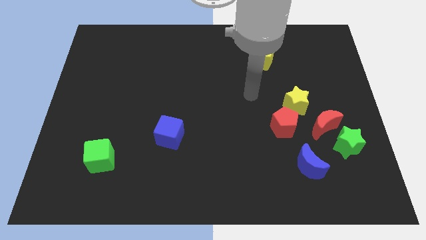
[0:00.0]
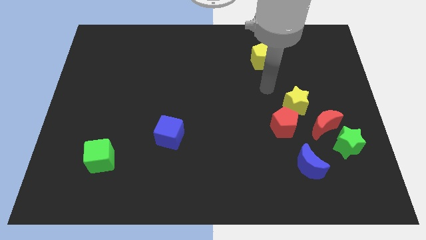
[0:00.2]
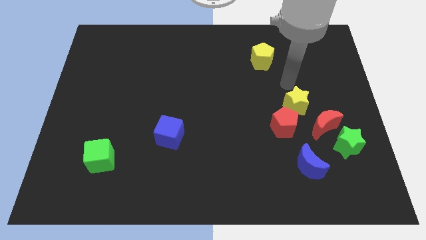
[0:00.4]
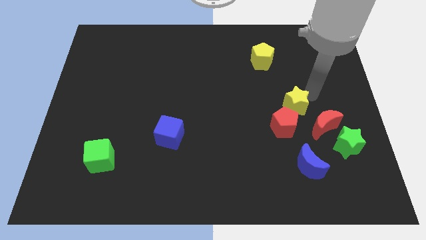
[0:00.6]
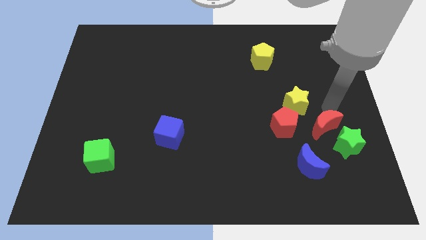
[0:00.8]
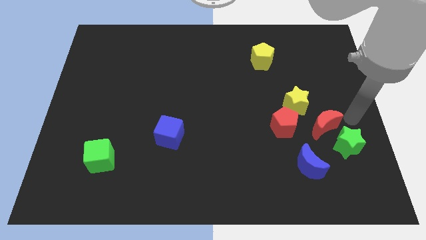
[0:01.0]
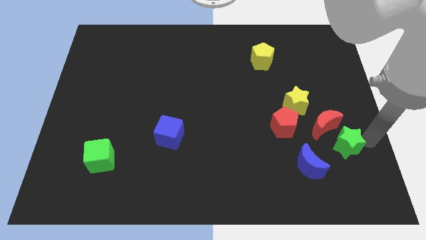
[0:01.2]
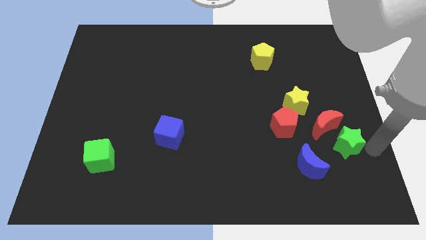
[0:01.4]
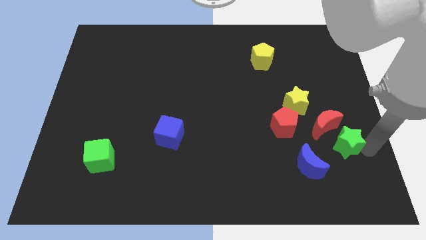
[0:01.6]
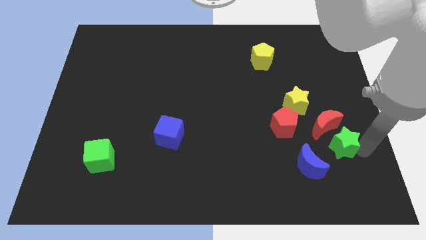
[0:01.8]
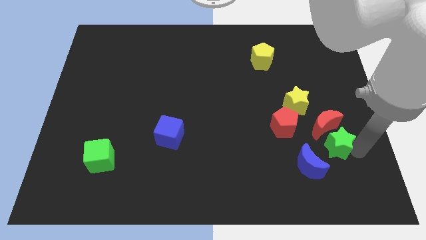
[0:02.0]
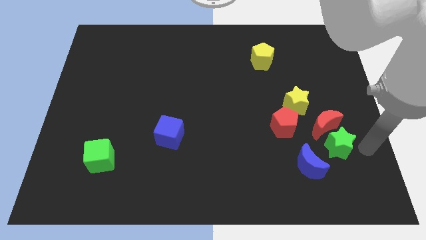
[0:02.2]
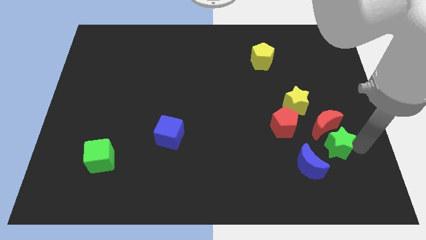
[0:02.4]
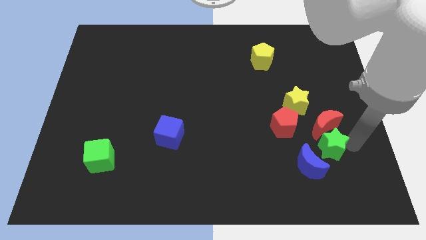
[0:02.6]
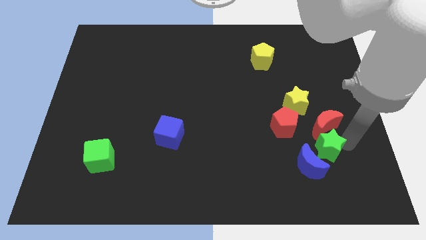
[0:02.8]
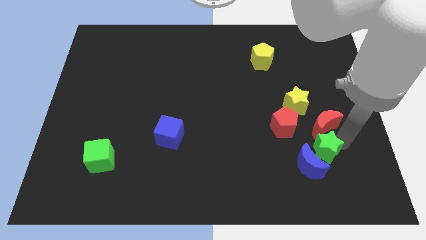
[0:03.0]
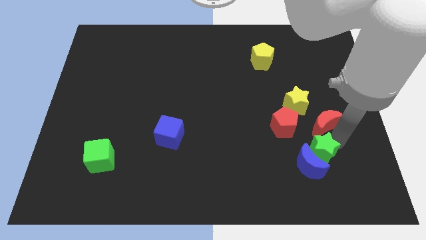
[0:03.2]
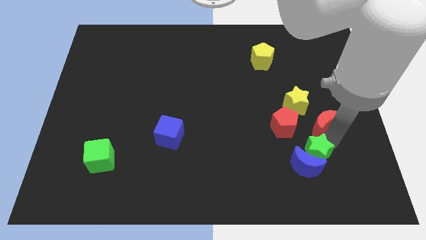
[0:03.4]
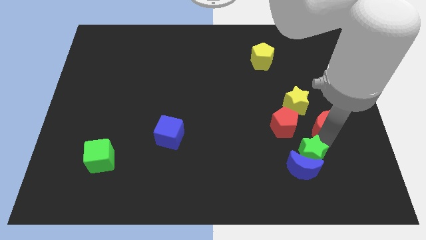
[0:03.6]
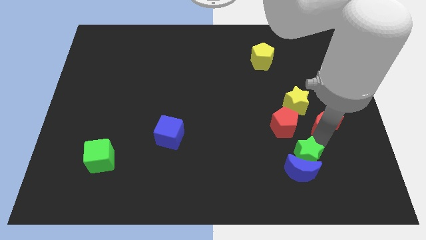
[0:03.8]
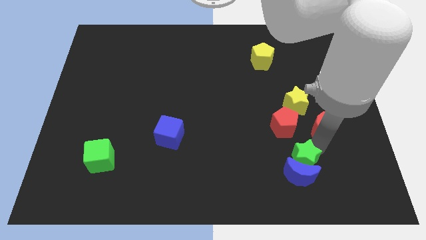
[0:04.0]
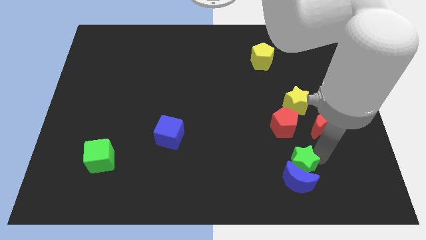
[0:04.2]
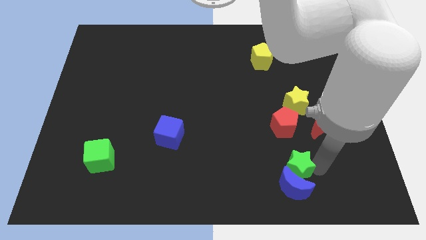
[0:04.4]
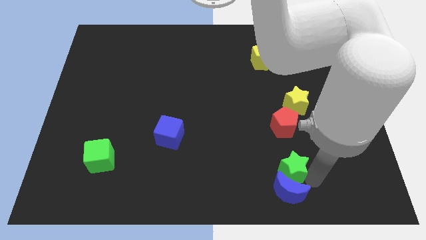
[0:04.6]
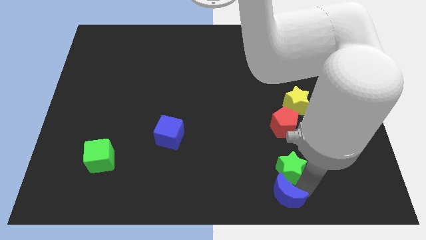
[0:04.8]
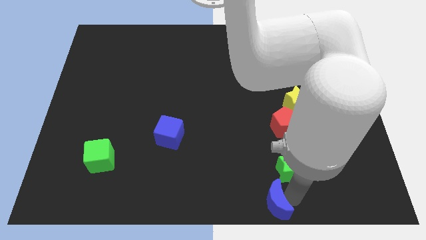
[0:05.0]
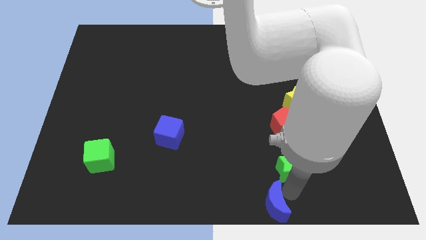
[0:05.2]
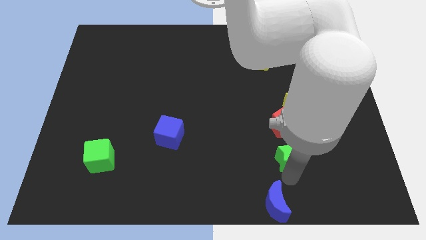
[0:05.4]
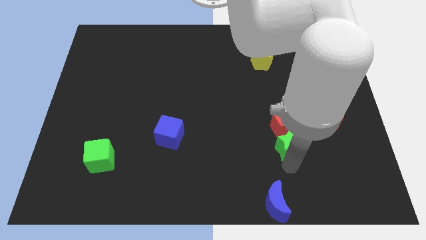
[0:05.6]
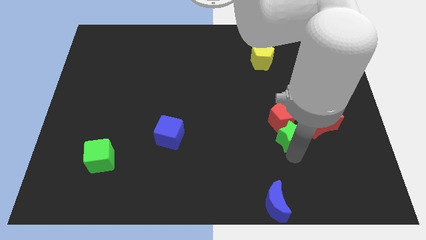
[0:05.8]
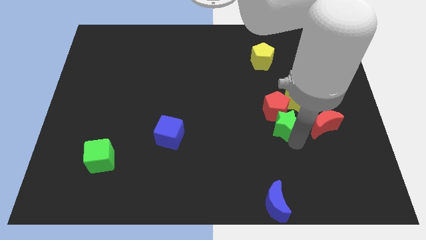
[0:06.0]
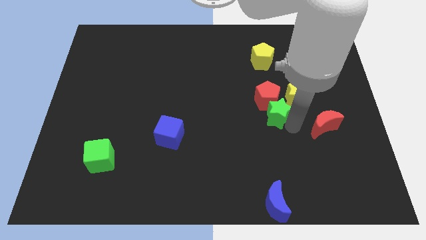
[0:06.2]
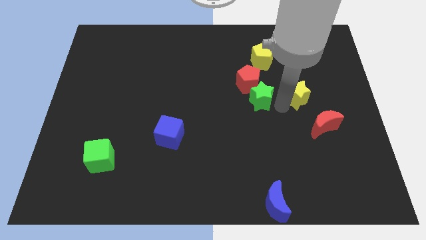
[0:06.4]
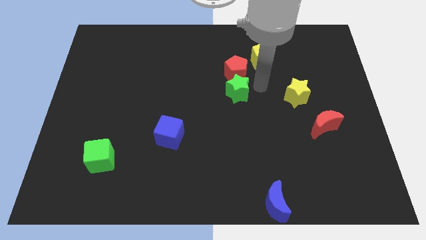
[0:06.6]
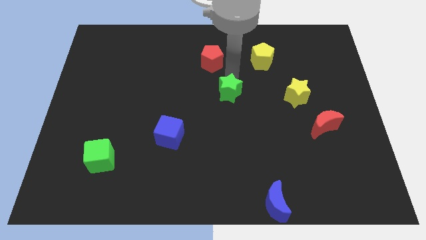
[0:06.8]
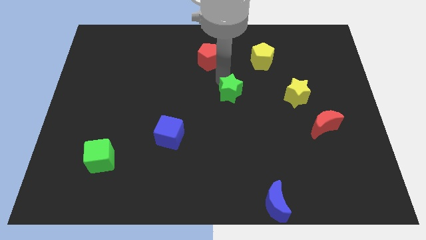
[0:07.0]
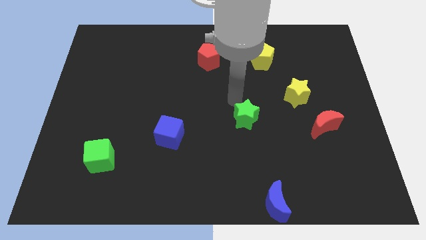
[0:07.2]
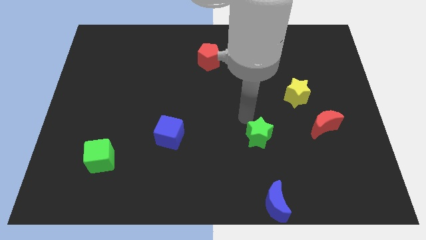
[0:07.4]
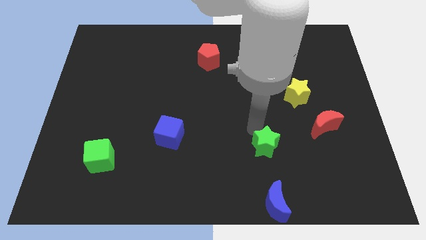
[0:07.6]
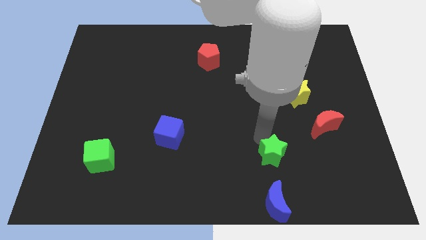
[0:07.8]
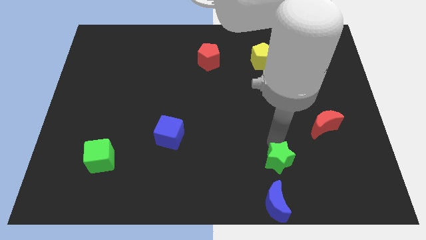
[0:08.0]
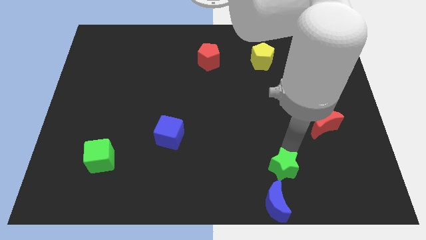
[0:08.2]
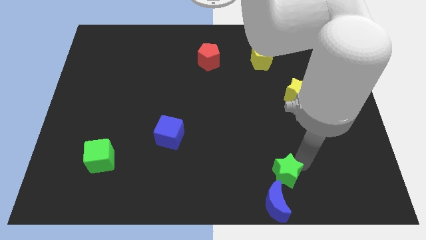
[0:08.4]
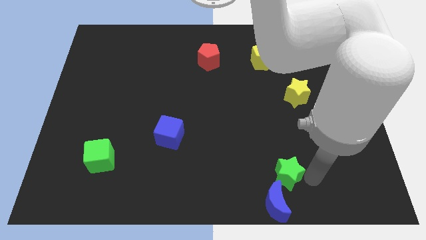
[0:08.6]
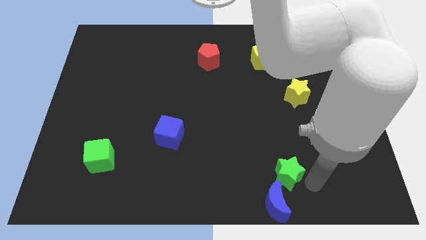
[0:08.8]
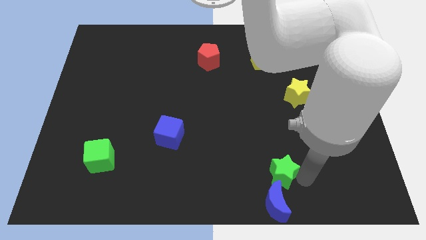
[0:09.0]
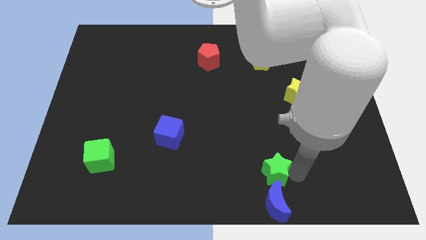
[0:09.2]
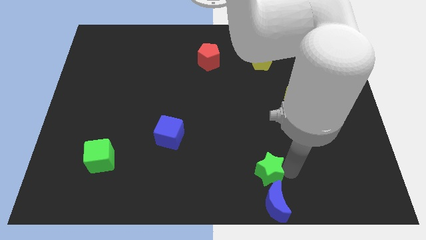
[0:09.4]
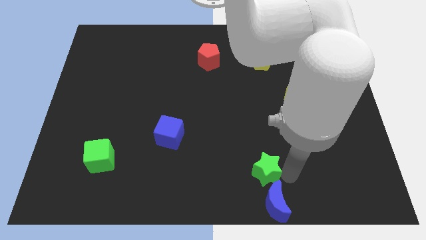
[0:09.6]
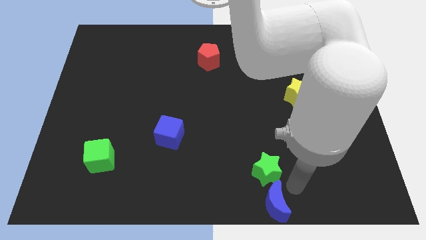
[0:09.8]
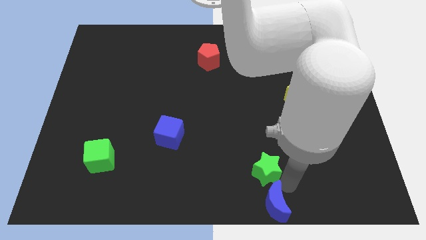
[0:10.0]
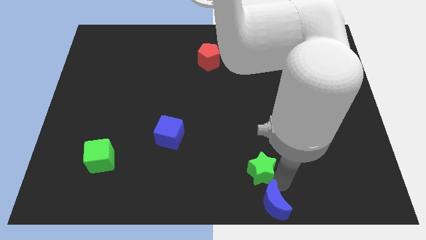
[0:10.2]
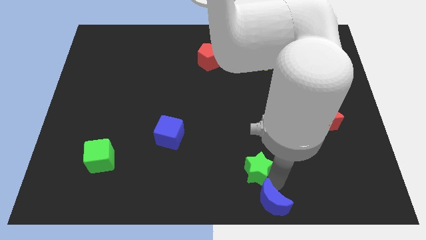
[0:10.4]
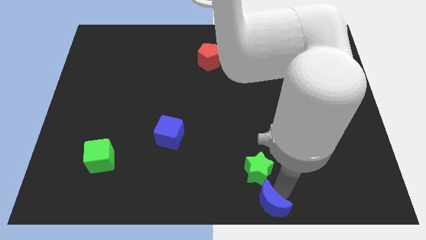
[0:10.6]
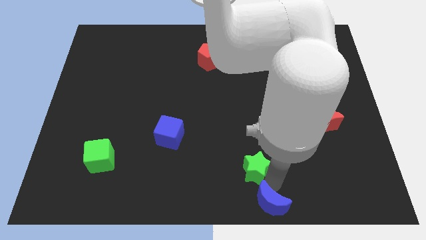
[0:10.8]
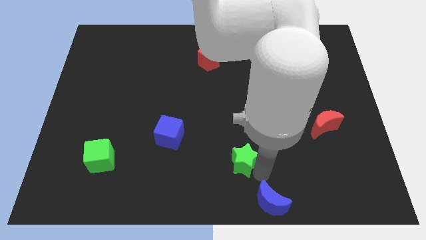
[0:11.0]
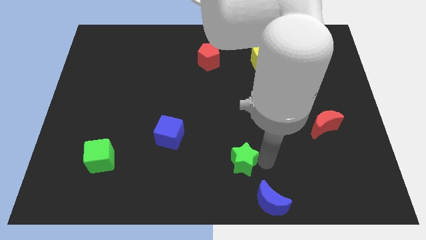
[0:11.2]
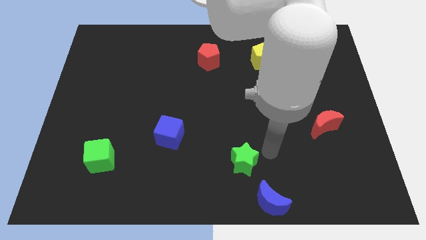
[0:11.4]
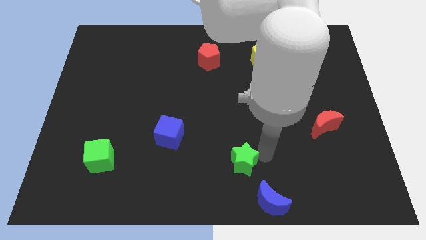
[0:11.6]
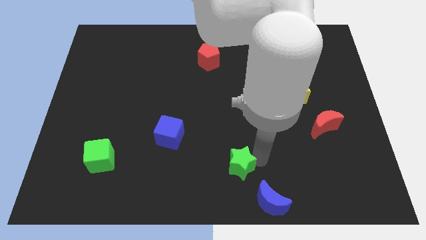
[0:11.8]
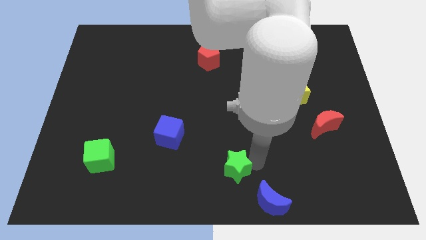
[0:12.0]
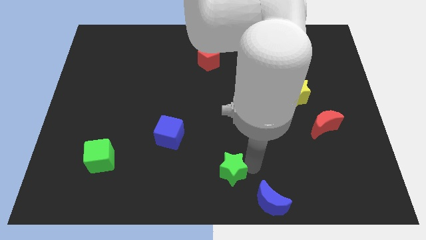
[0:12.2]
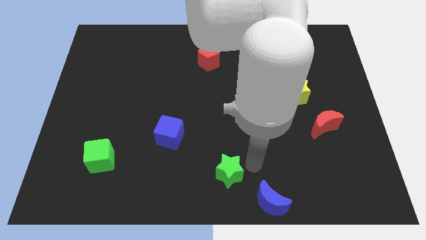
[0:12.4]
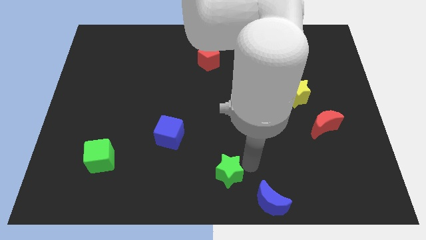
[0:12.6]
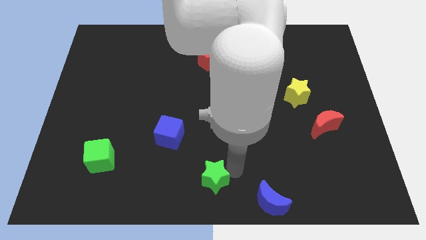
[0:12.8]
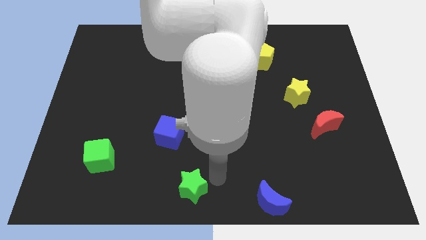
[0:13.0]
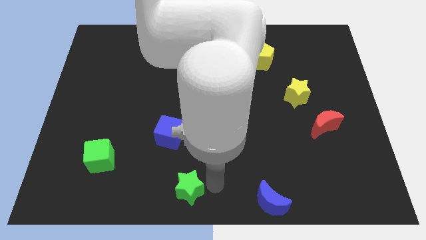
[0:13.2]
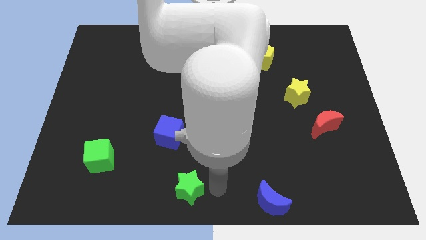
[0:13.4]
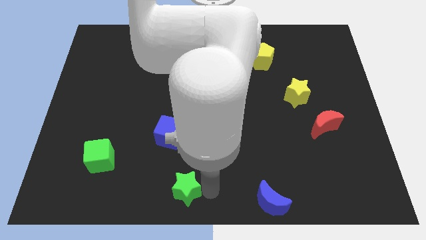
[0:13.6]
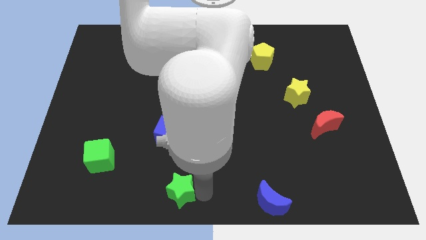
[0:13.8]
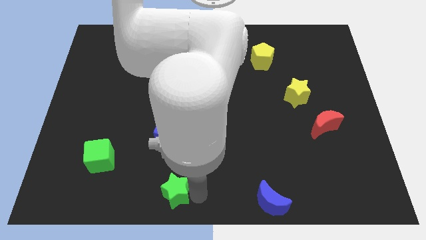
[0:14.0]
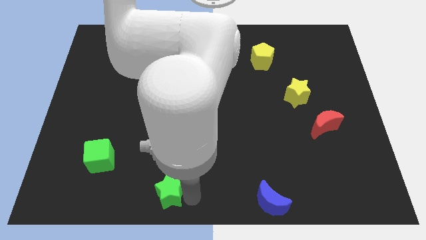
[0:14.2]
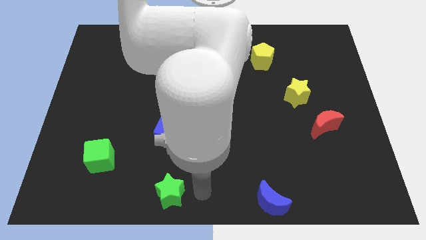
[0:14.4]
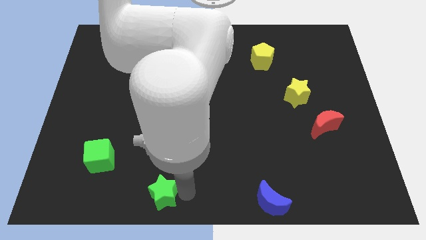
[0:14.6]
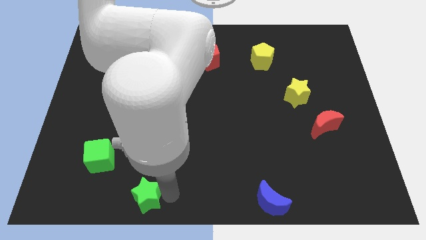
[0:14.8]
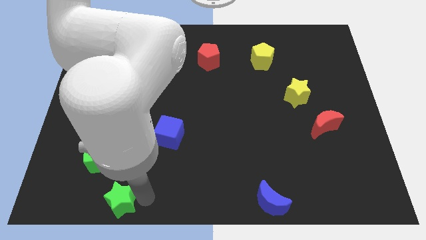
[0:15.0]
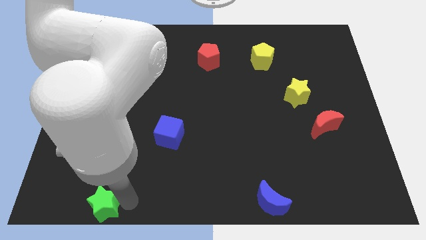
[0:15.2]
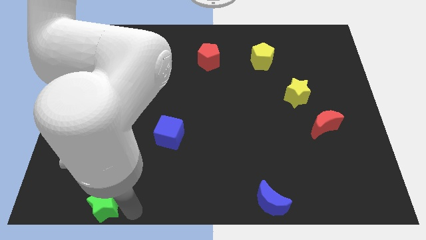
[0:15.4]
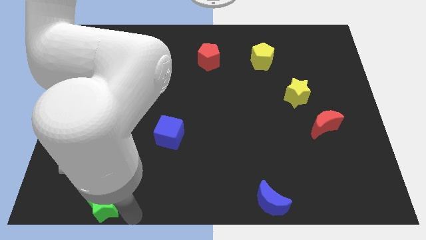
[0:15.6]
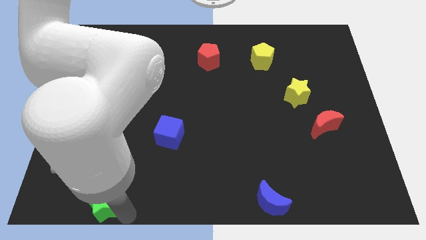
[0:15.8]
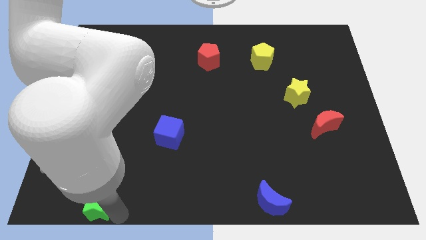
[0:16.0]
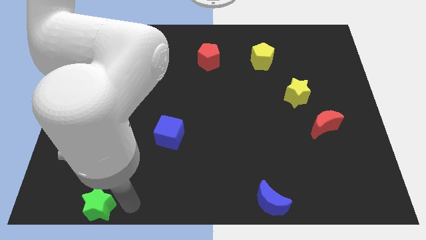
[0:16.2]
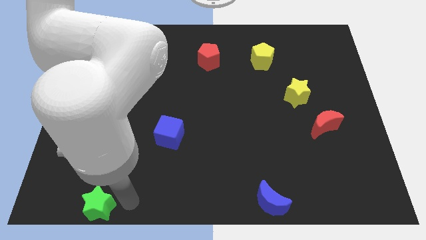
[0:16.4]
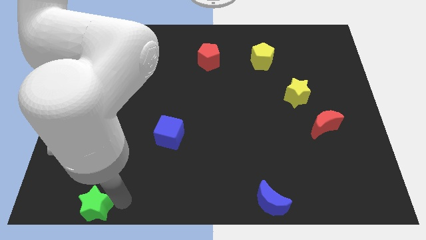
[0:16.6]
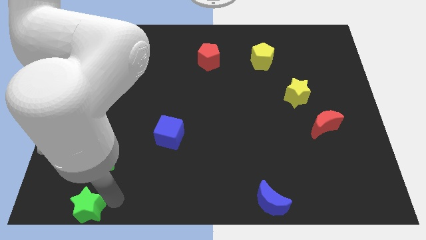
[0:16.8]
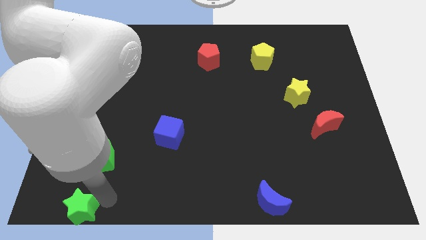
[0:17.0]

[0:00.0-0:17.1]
put the green star to the bottom left of the board
